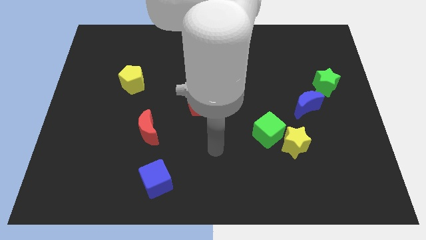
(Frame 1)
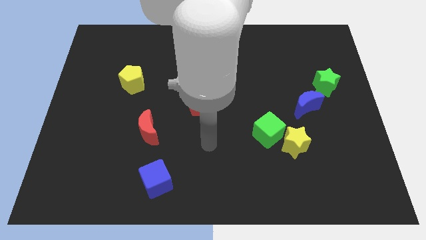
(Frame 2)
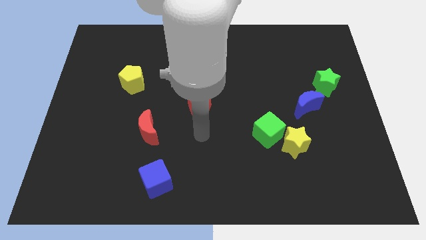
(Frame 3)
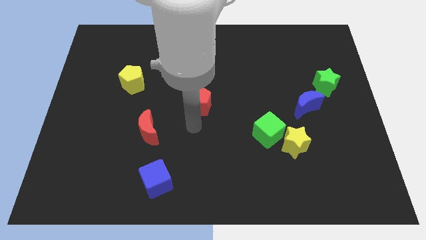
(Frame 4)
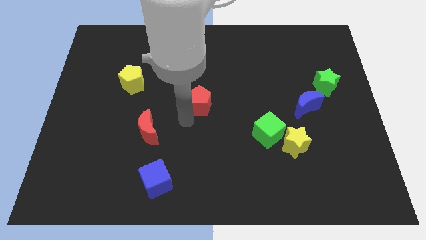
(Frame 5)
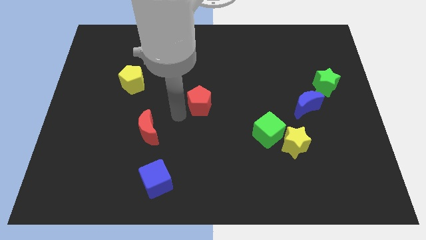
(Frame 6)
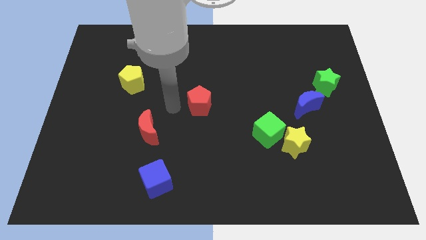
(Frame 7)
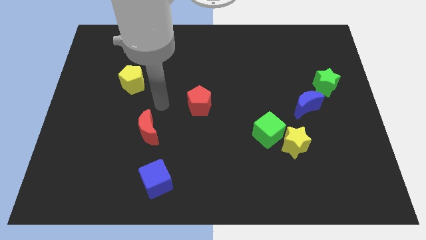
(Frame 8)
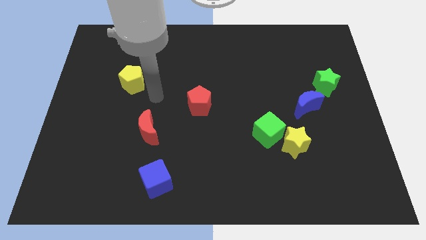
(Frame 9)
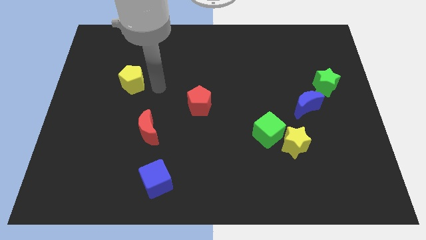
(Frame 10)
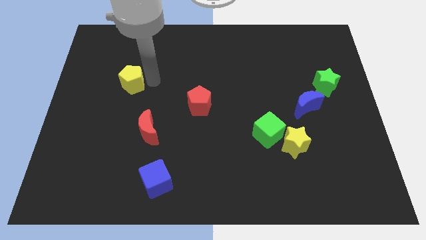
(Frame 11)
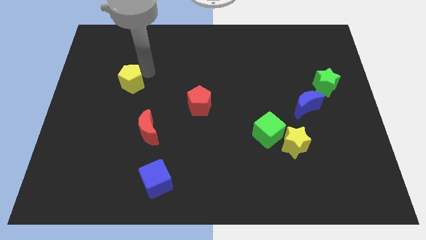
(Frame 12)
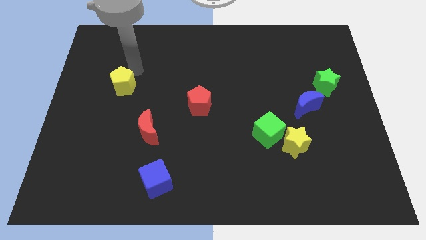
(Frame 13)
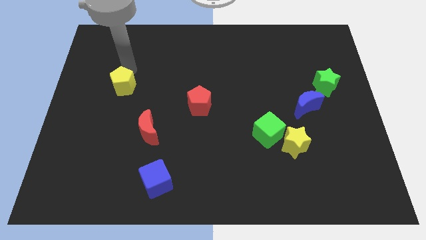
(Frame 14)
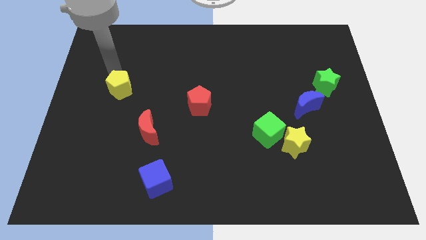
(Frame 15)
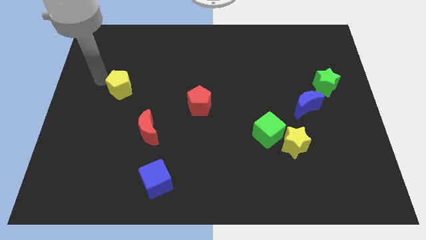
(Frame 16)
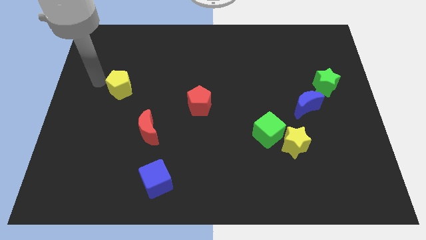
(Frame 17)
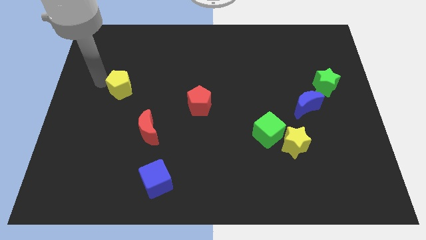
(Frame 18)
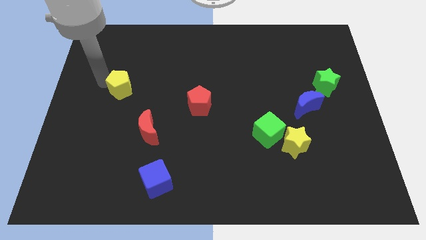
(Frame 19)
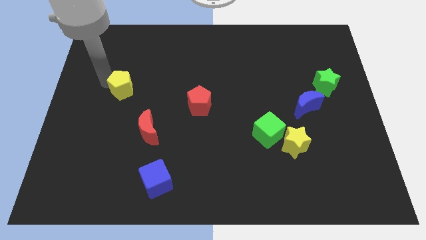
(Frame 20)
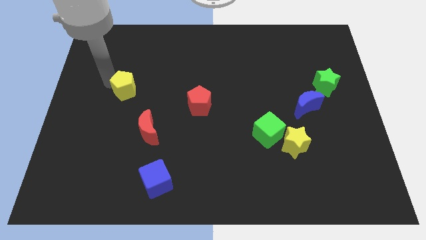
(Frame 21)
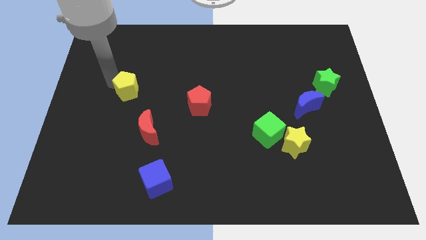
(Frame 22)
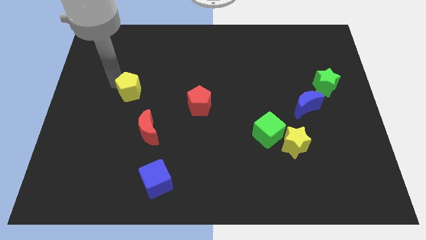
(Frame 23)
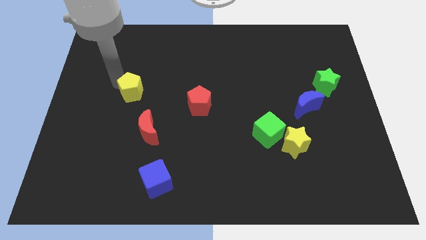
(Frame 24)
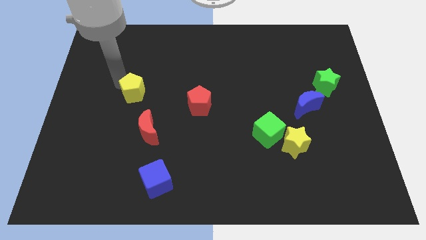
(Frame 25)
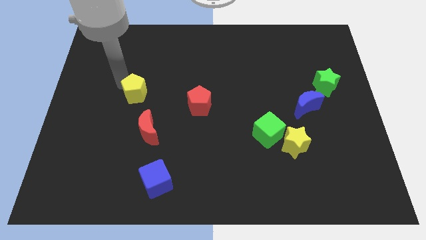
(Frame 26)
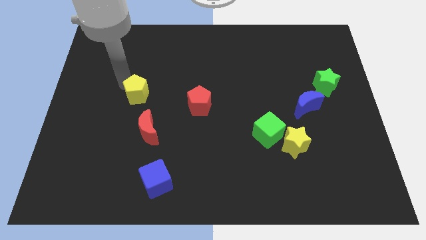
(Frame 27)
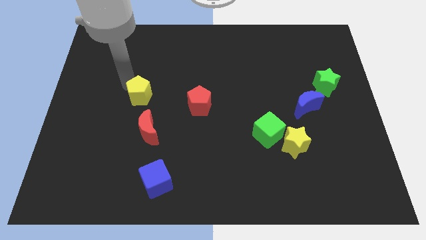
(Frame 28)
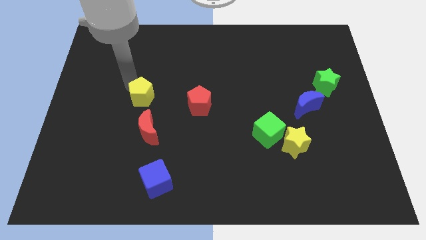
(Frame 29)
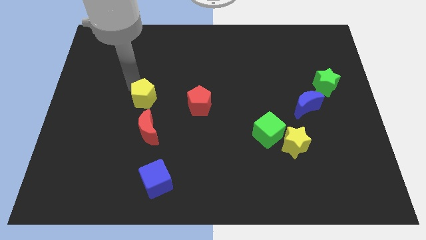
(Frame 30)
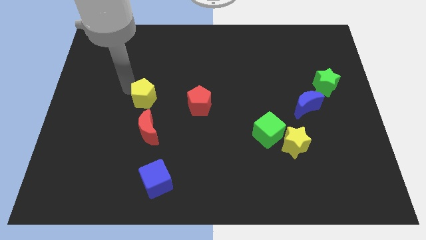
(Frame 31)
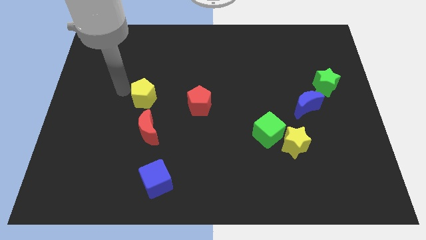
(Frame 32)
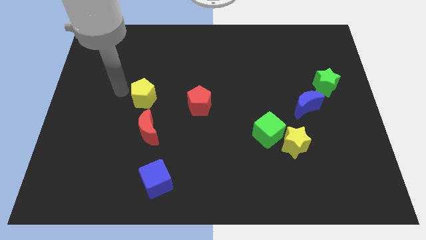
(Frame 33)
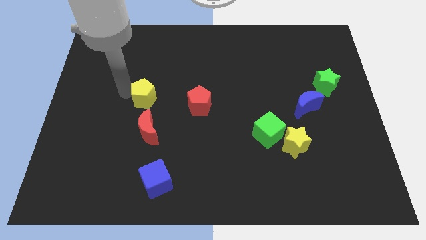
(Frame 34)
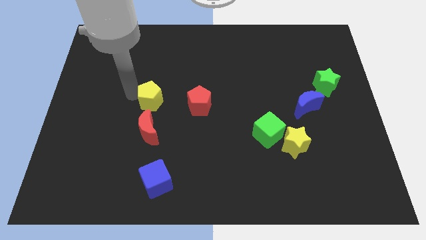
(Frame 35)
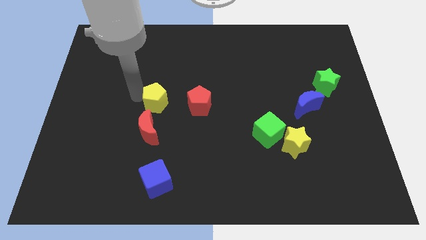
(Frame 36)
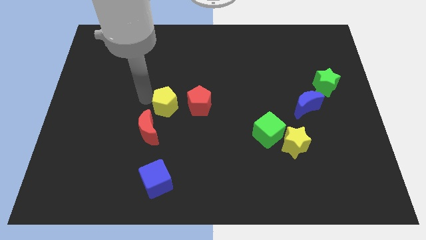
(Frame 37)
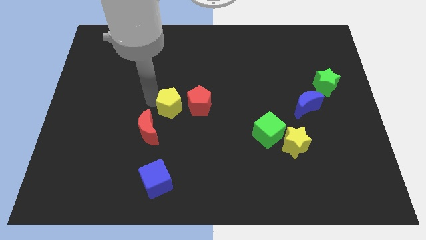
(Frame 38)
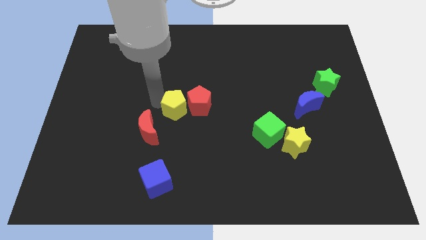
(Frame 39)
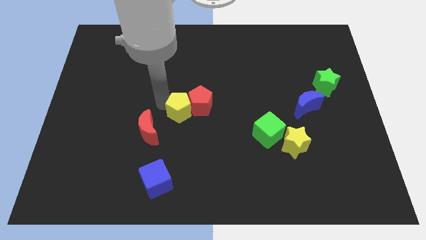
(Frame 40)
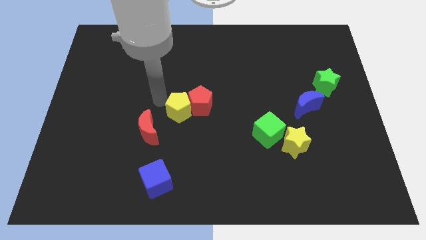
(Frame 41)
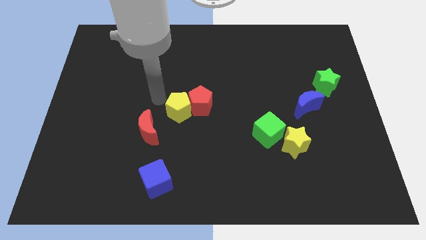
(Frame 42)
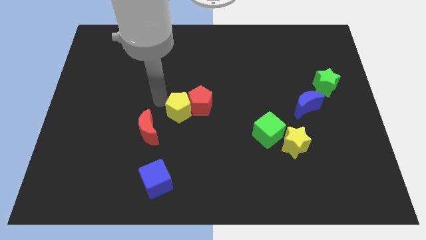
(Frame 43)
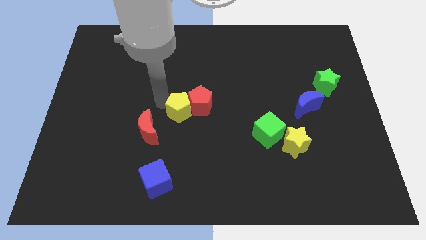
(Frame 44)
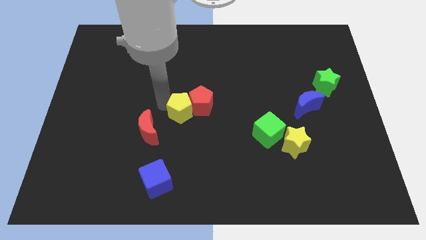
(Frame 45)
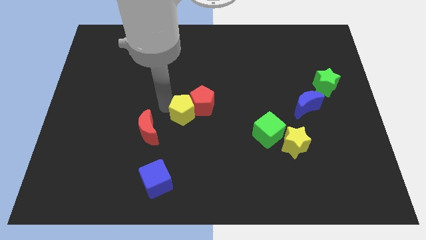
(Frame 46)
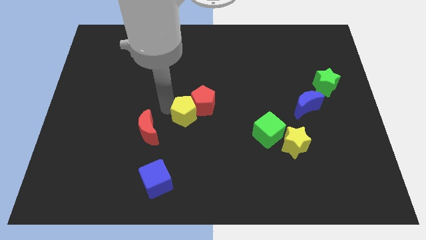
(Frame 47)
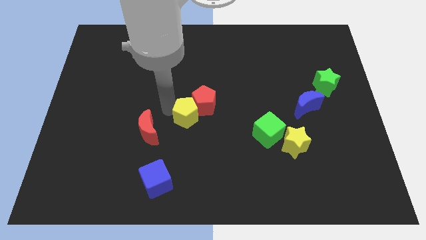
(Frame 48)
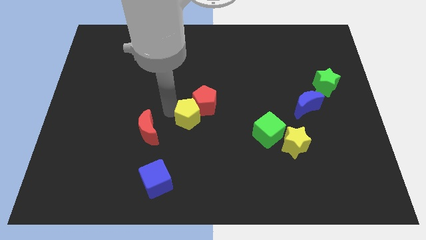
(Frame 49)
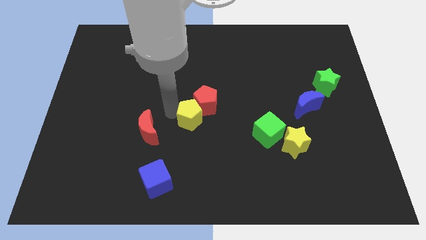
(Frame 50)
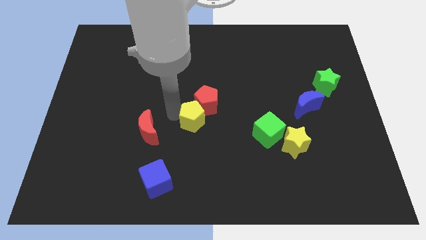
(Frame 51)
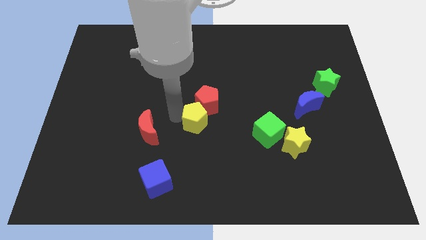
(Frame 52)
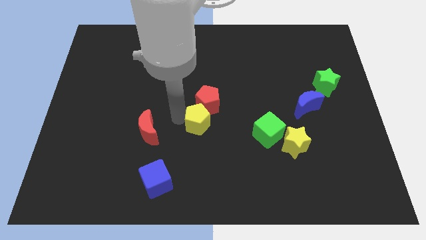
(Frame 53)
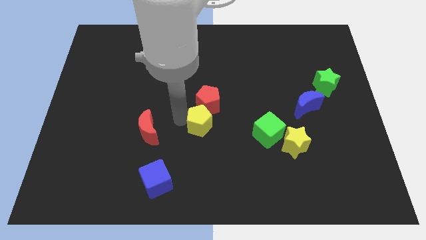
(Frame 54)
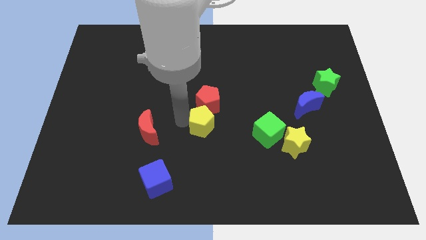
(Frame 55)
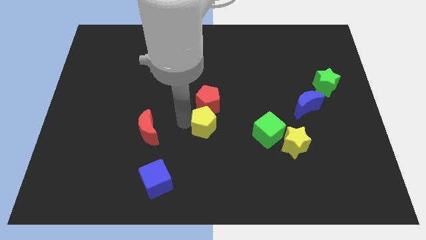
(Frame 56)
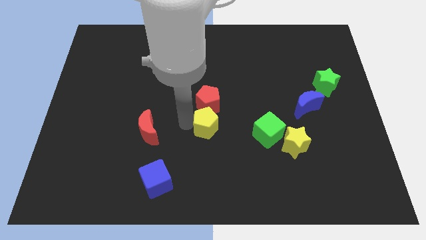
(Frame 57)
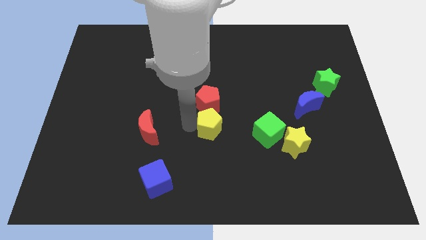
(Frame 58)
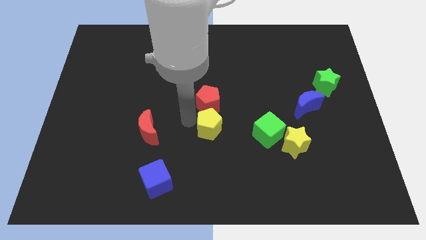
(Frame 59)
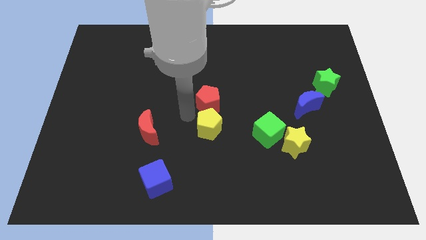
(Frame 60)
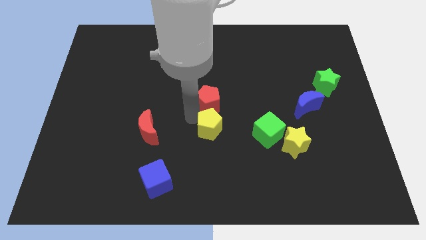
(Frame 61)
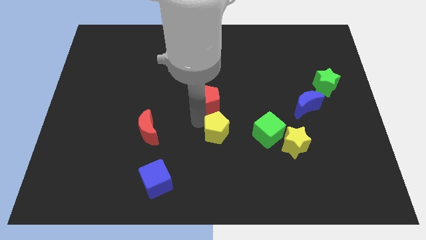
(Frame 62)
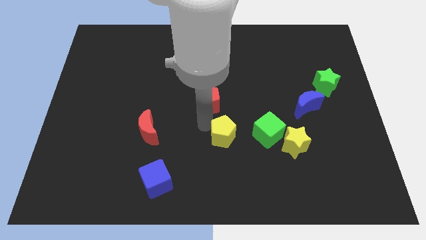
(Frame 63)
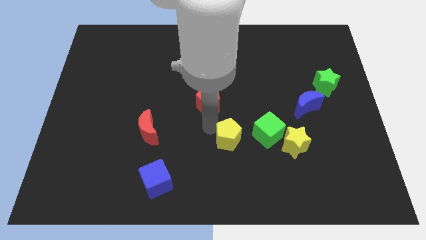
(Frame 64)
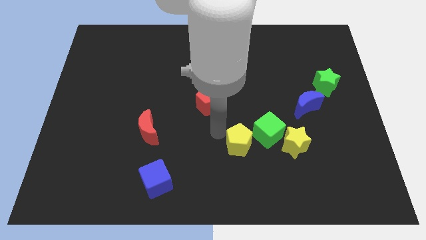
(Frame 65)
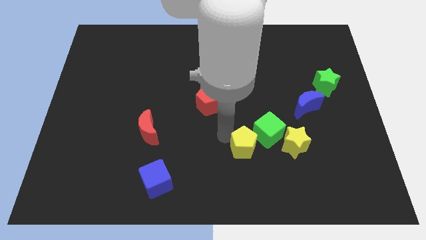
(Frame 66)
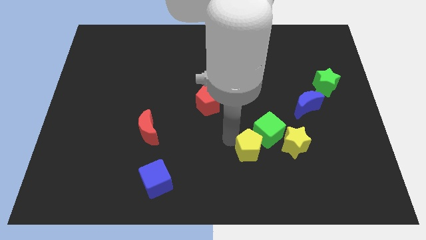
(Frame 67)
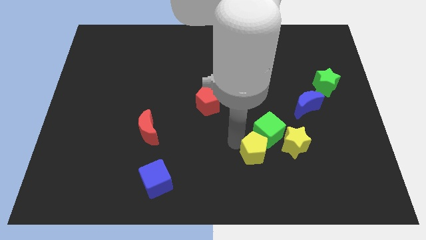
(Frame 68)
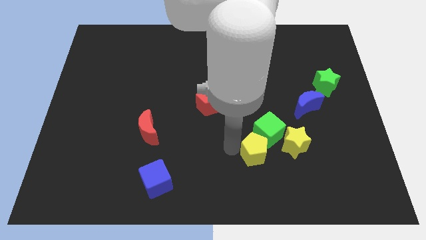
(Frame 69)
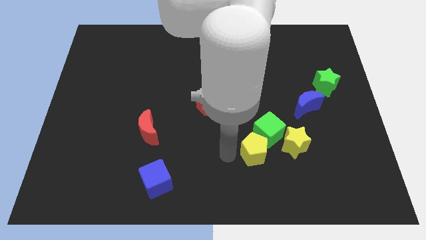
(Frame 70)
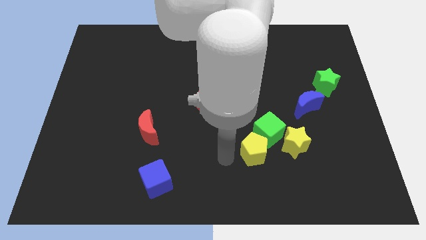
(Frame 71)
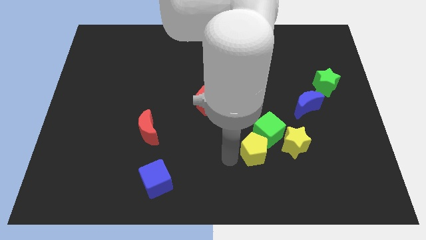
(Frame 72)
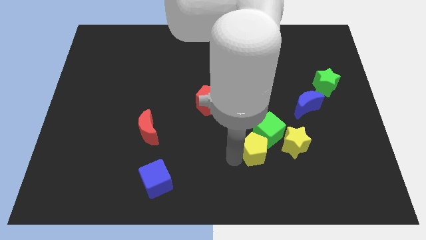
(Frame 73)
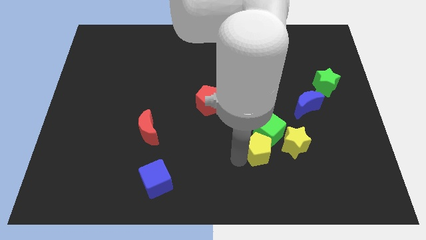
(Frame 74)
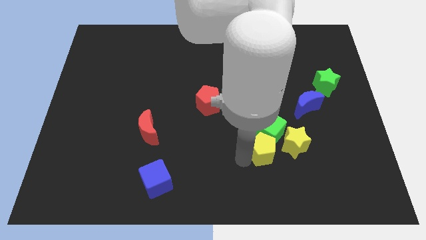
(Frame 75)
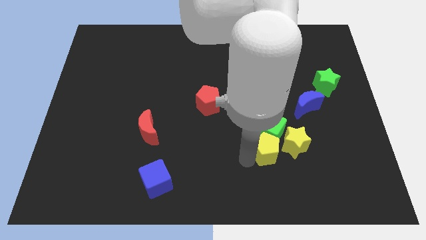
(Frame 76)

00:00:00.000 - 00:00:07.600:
push the yellow pentagon close to the yellow star
